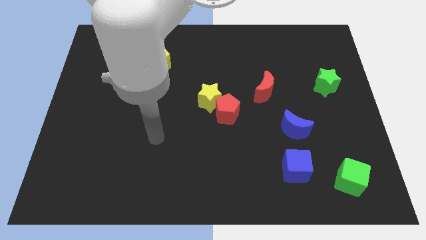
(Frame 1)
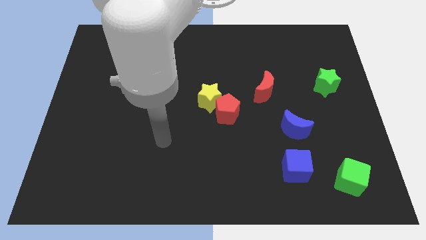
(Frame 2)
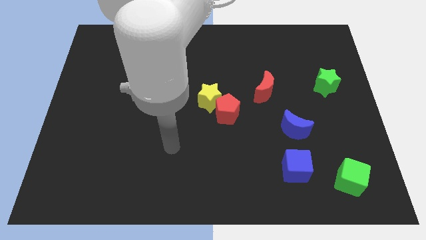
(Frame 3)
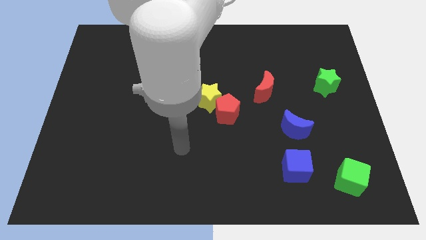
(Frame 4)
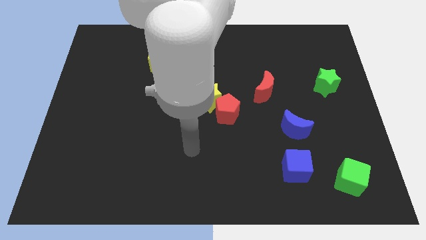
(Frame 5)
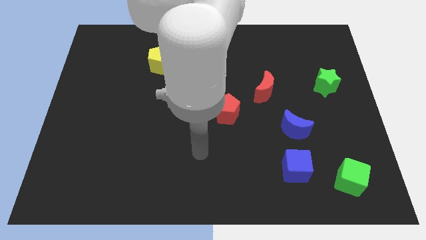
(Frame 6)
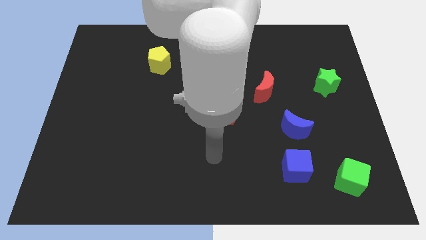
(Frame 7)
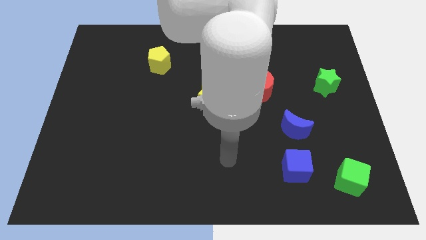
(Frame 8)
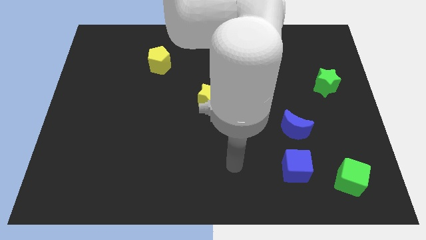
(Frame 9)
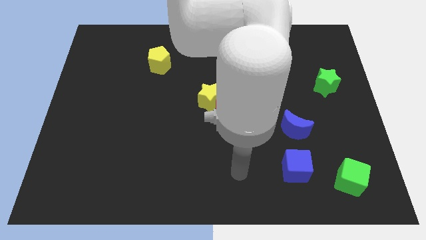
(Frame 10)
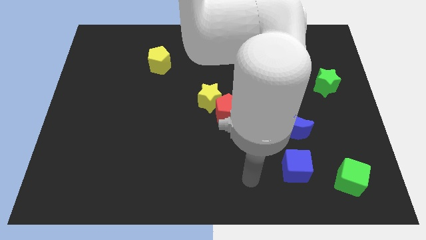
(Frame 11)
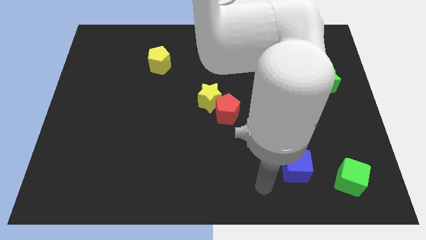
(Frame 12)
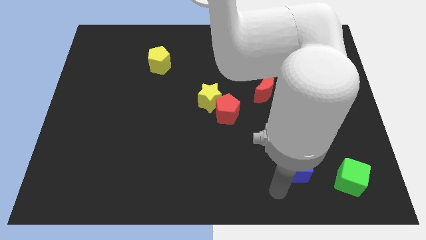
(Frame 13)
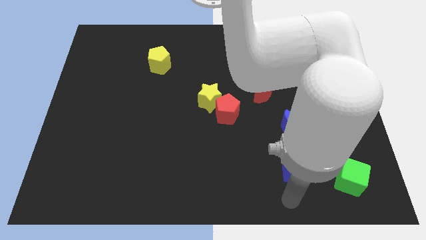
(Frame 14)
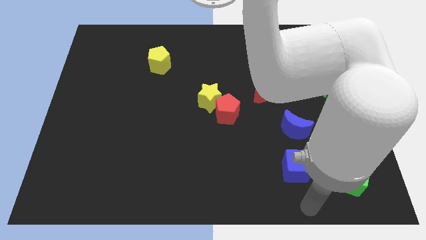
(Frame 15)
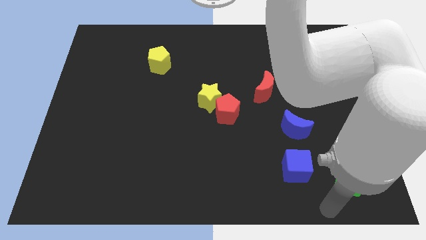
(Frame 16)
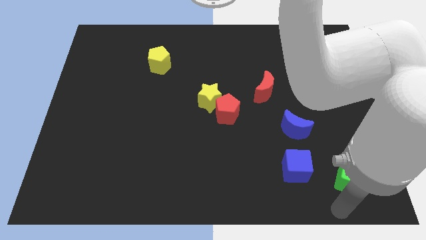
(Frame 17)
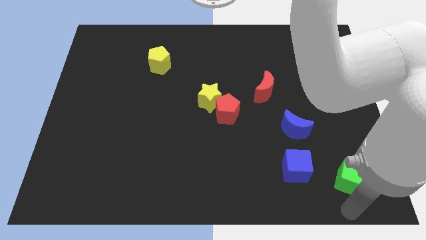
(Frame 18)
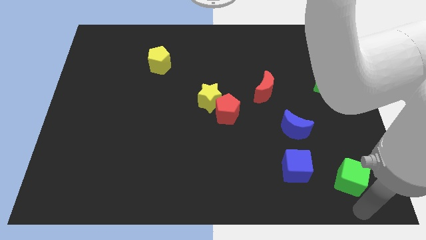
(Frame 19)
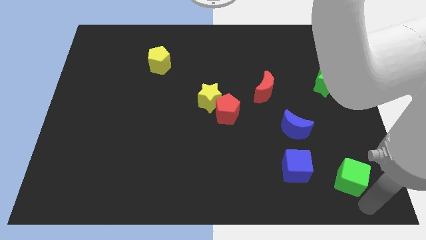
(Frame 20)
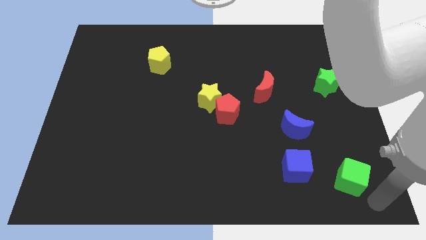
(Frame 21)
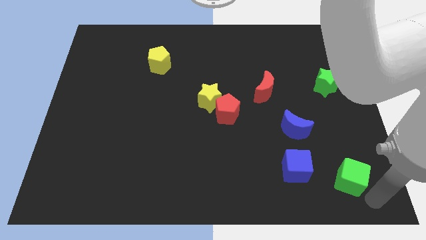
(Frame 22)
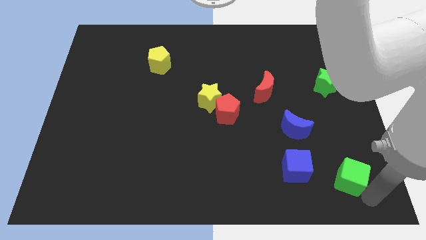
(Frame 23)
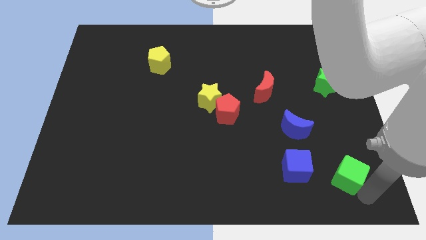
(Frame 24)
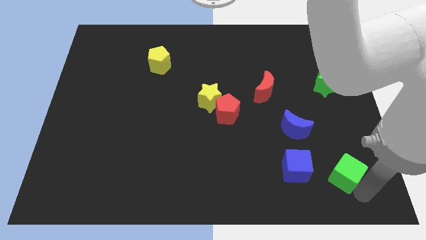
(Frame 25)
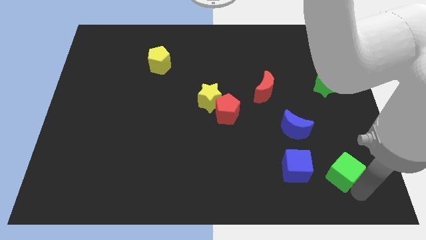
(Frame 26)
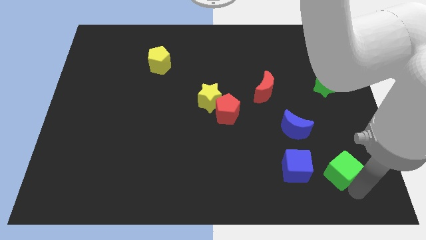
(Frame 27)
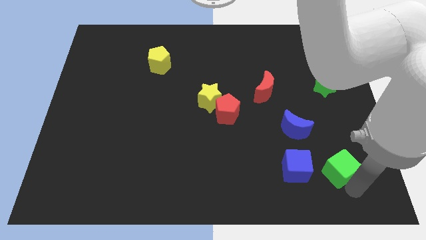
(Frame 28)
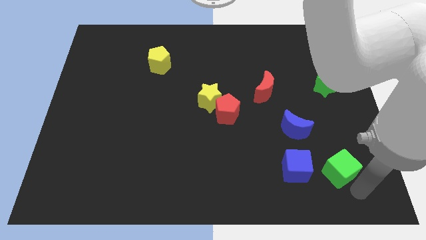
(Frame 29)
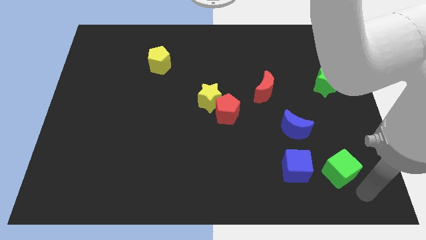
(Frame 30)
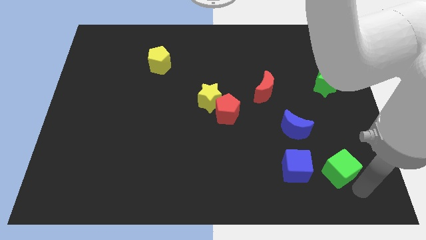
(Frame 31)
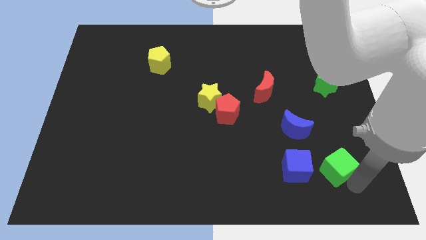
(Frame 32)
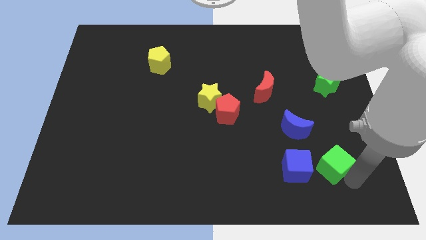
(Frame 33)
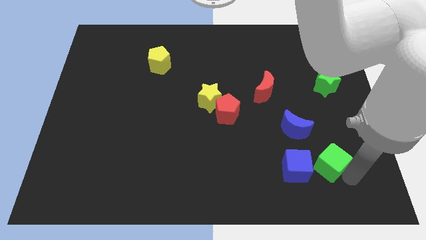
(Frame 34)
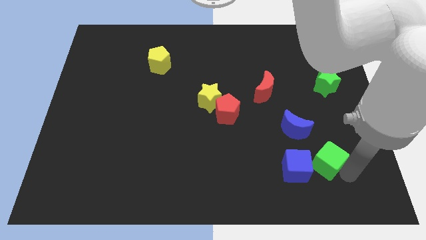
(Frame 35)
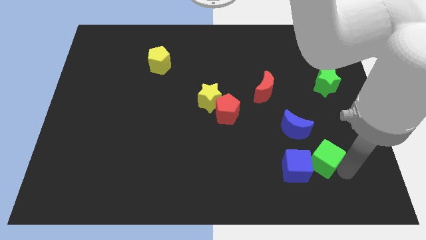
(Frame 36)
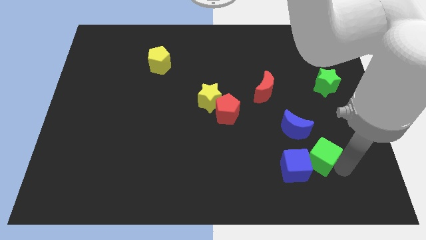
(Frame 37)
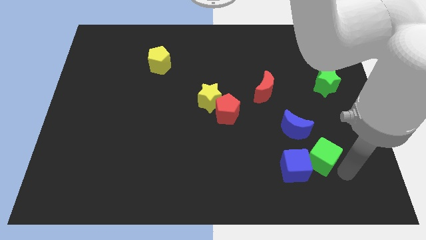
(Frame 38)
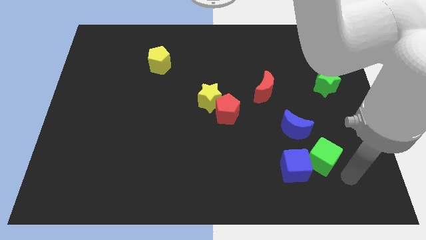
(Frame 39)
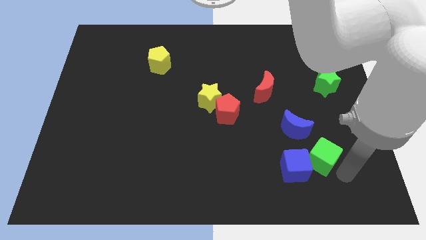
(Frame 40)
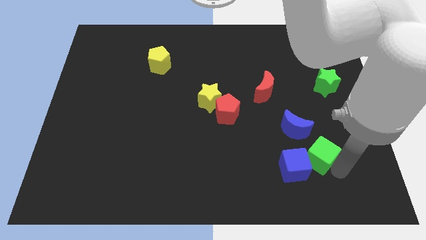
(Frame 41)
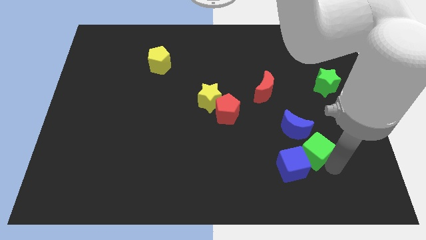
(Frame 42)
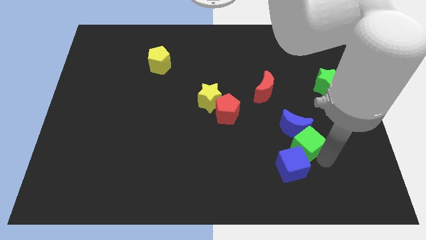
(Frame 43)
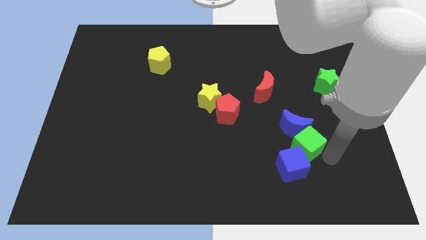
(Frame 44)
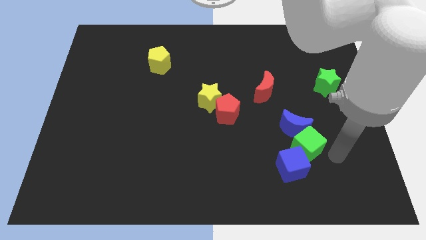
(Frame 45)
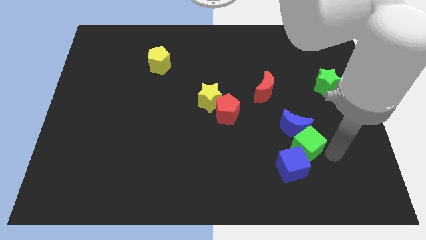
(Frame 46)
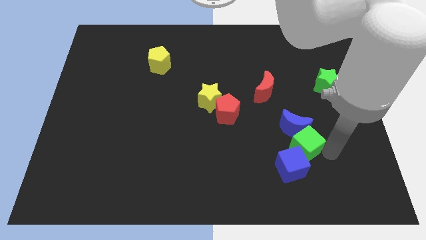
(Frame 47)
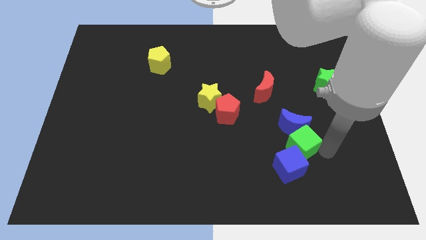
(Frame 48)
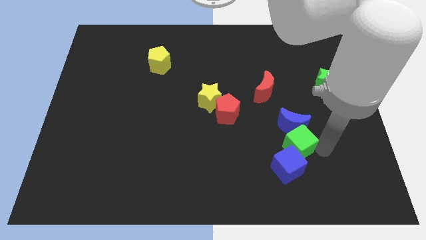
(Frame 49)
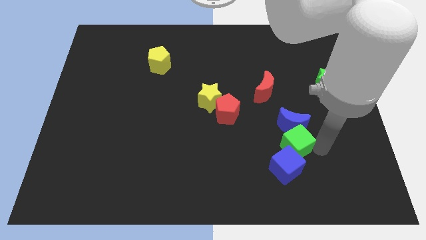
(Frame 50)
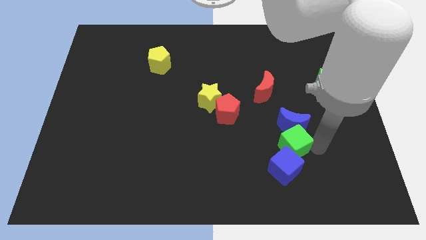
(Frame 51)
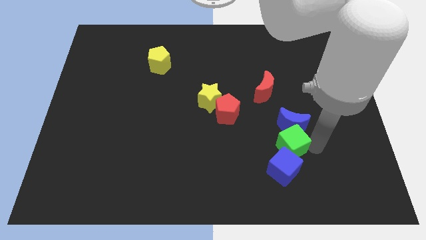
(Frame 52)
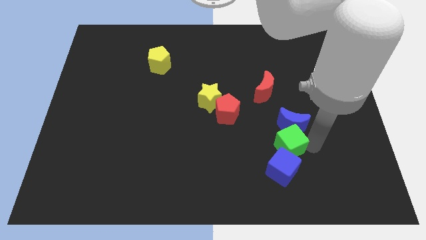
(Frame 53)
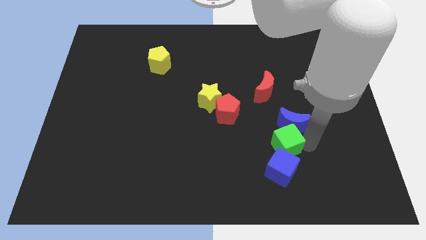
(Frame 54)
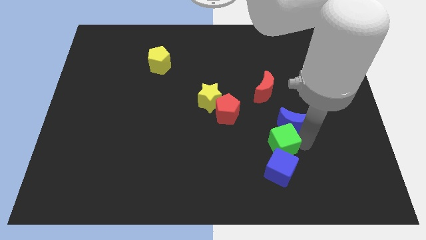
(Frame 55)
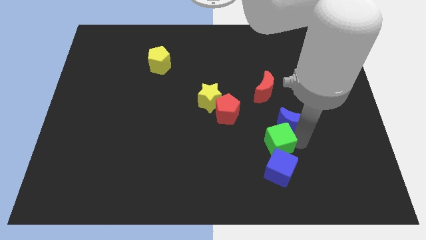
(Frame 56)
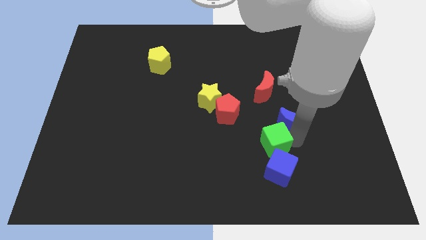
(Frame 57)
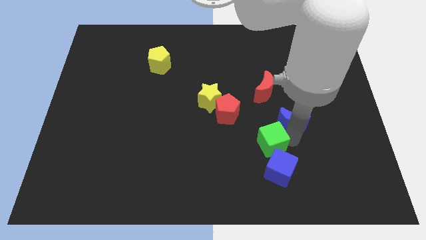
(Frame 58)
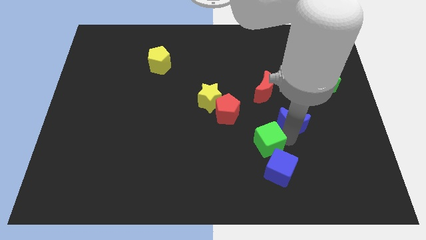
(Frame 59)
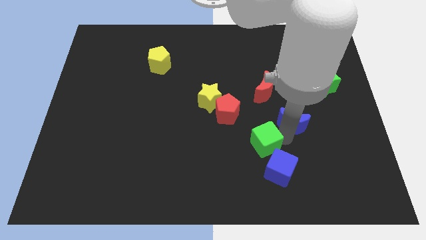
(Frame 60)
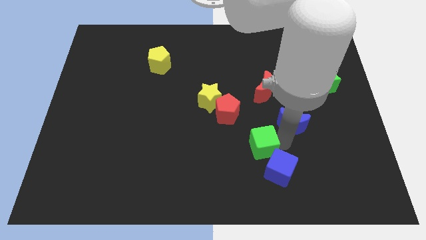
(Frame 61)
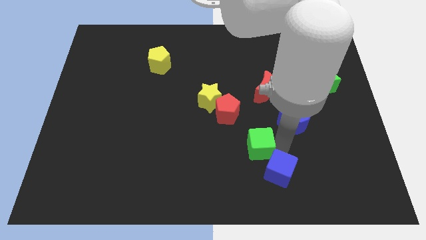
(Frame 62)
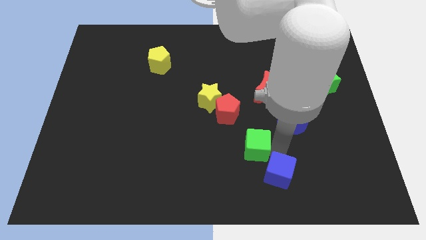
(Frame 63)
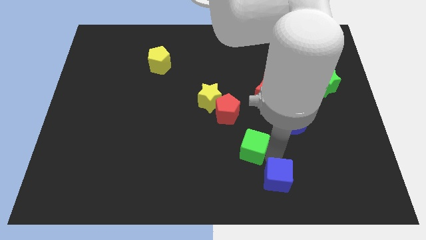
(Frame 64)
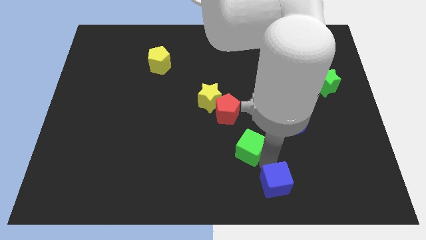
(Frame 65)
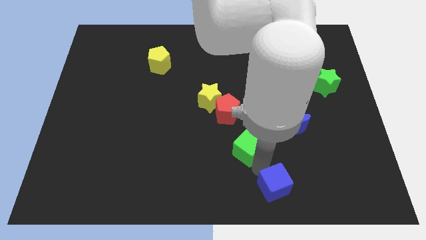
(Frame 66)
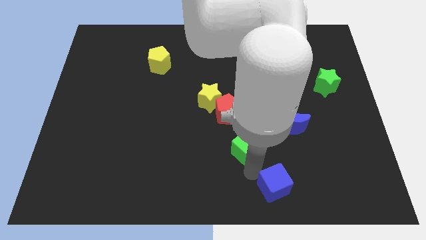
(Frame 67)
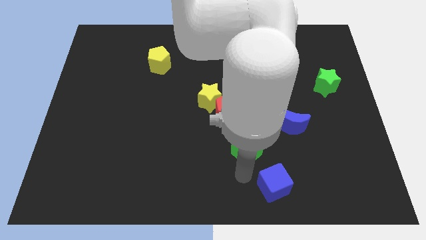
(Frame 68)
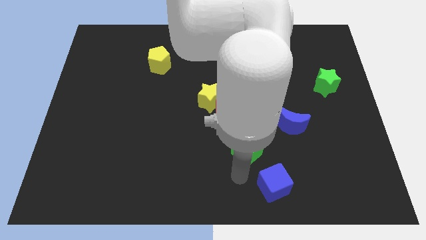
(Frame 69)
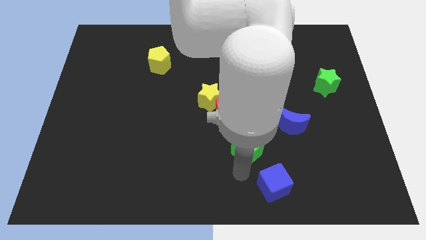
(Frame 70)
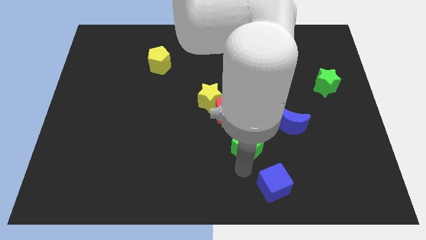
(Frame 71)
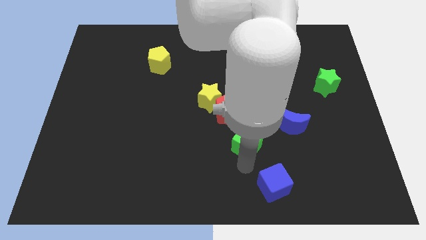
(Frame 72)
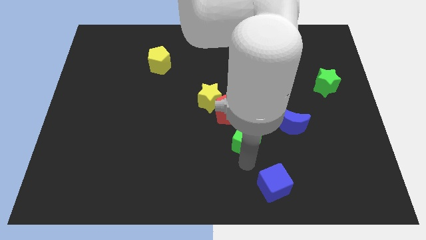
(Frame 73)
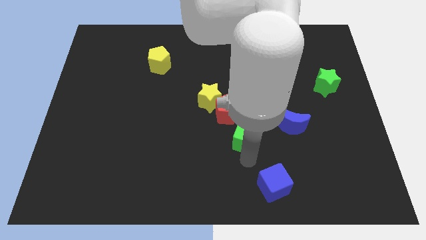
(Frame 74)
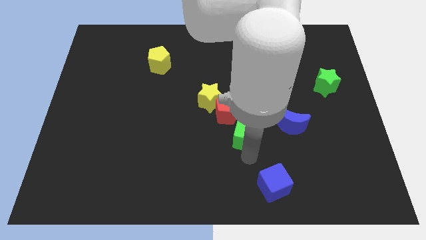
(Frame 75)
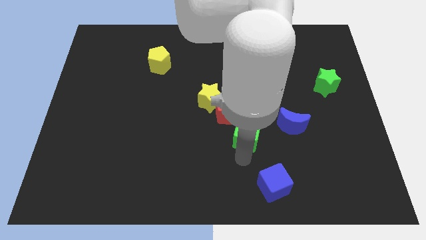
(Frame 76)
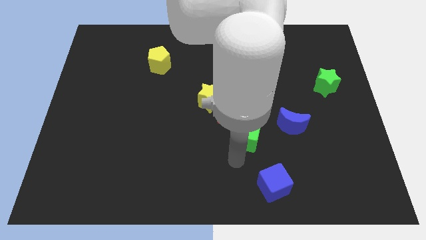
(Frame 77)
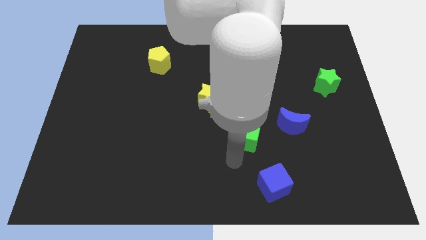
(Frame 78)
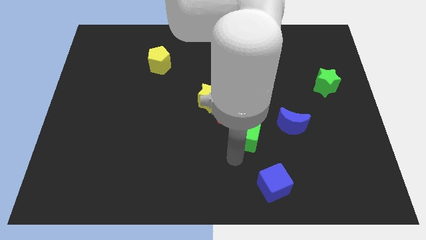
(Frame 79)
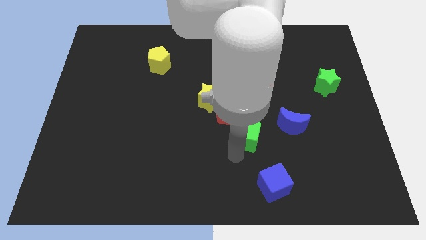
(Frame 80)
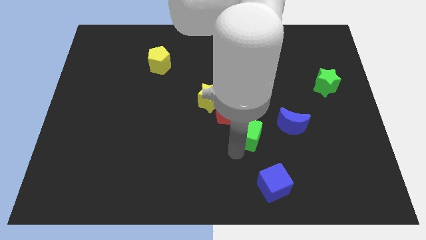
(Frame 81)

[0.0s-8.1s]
push the green cube upwards and to the left
